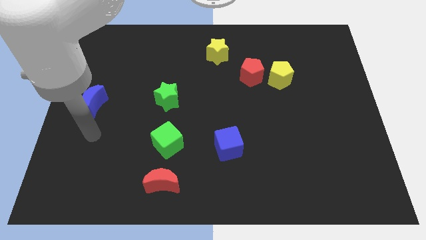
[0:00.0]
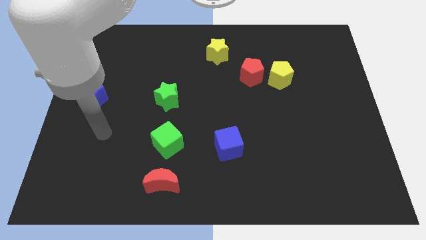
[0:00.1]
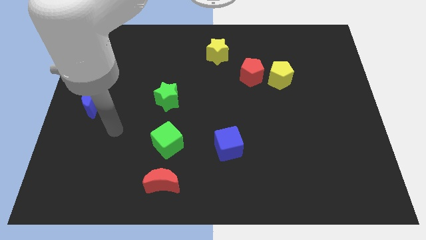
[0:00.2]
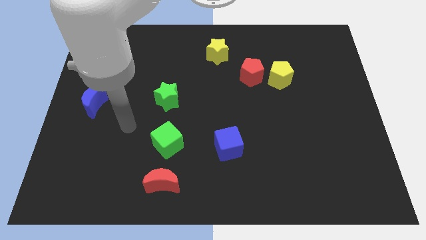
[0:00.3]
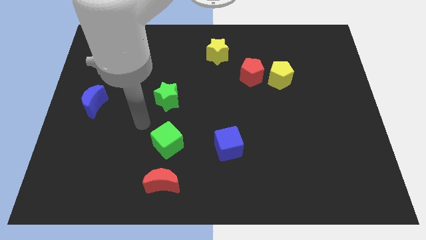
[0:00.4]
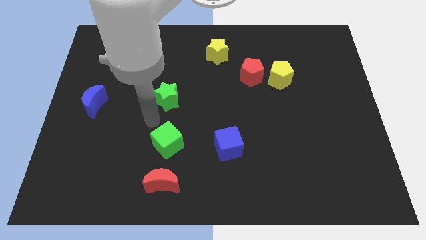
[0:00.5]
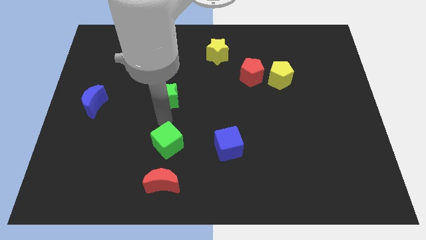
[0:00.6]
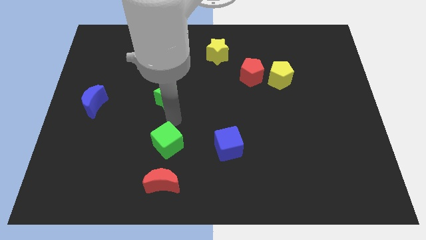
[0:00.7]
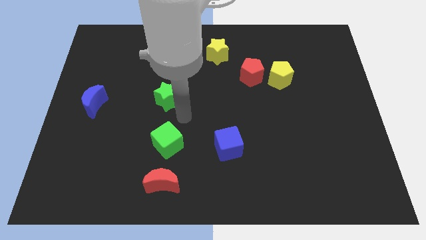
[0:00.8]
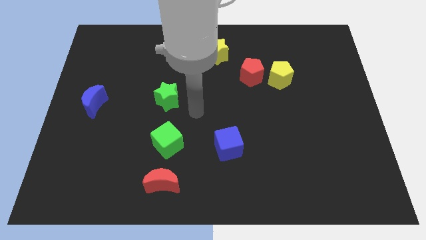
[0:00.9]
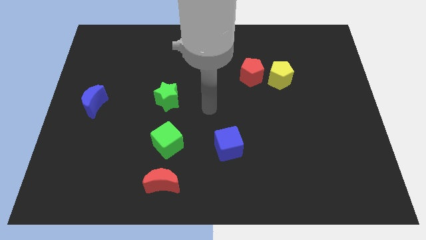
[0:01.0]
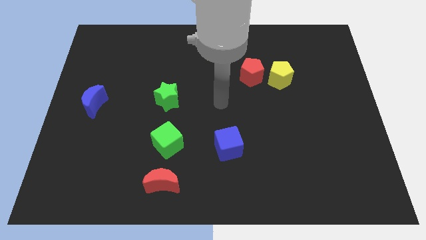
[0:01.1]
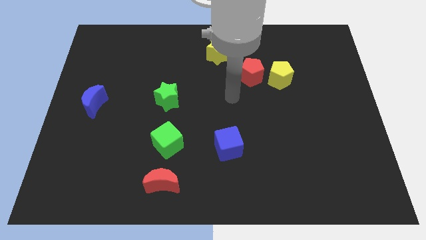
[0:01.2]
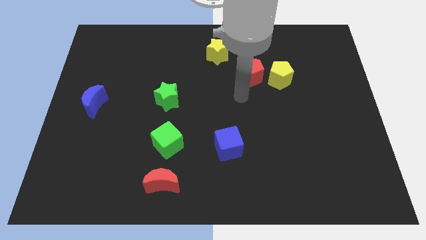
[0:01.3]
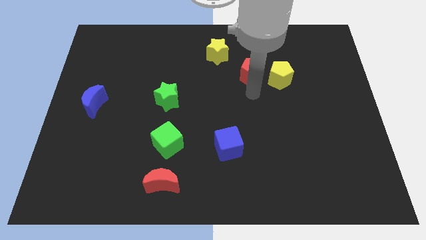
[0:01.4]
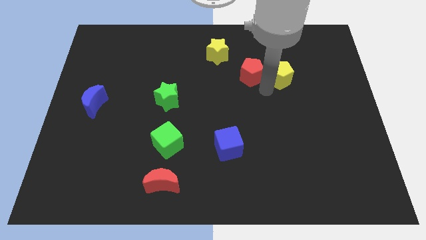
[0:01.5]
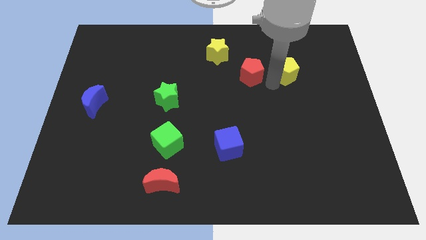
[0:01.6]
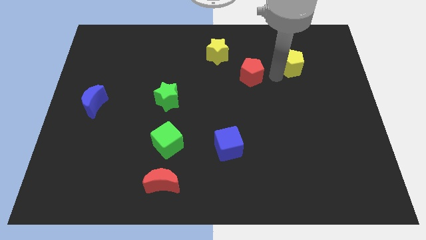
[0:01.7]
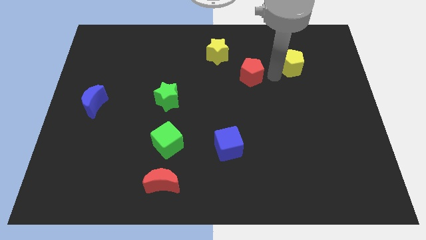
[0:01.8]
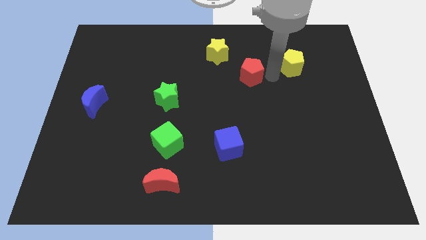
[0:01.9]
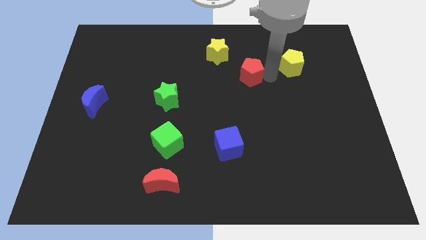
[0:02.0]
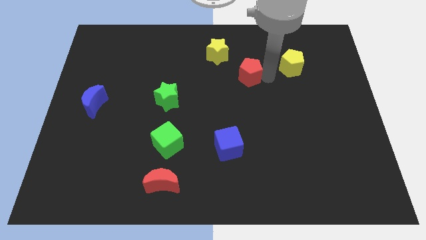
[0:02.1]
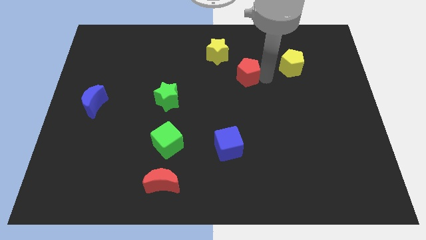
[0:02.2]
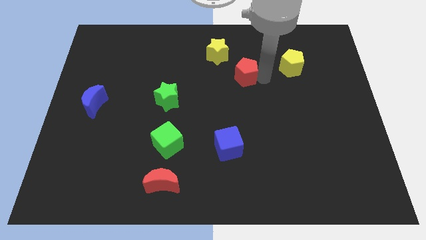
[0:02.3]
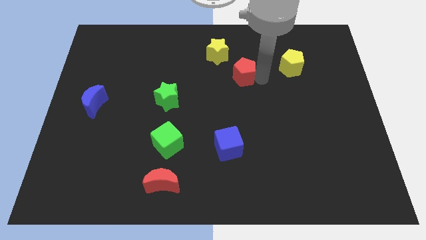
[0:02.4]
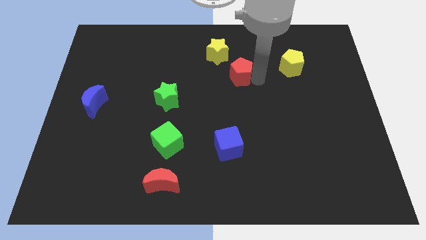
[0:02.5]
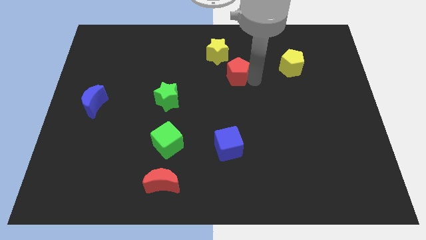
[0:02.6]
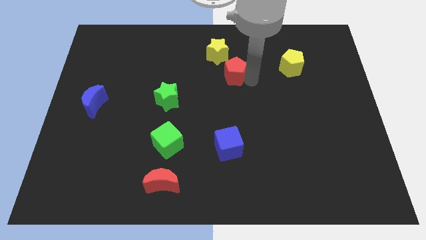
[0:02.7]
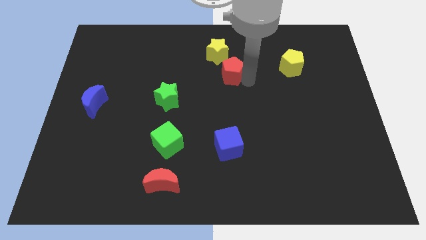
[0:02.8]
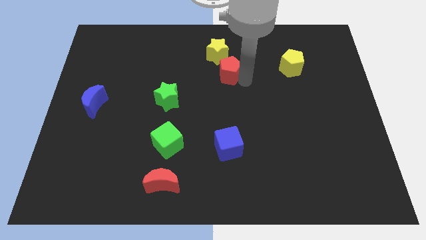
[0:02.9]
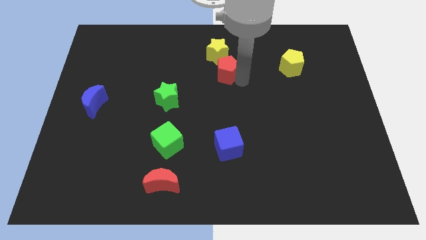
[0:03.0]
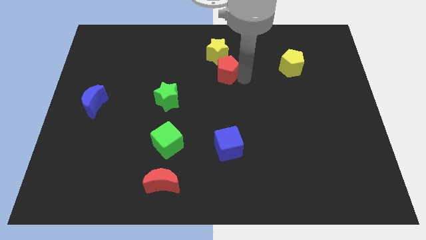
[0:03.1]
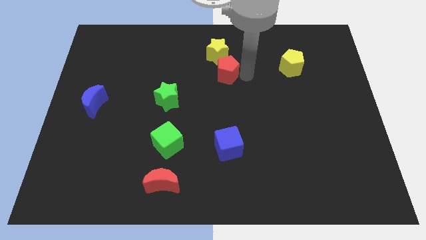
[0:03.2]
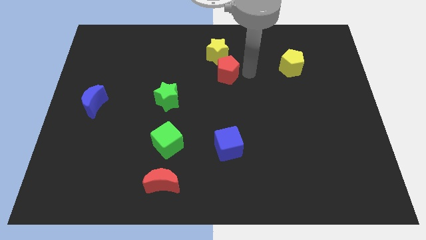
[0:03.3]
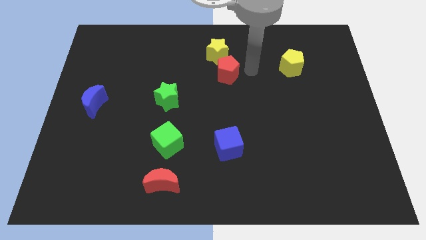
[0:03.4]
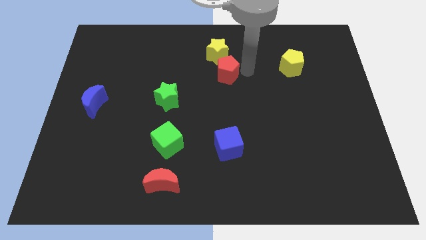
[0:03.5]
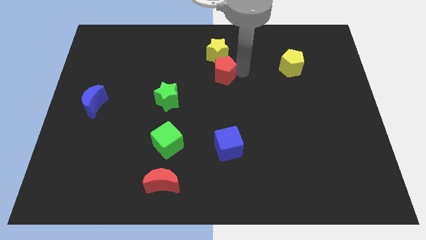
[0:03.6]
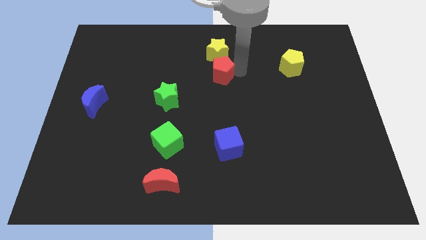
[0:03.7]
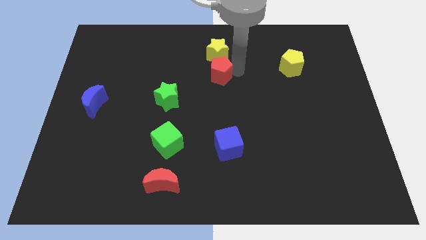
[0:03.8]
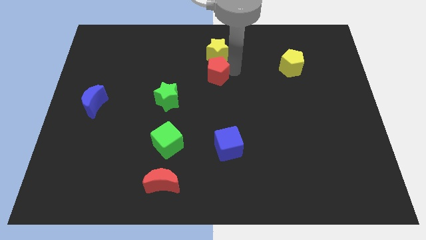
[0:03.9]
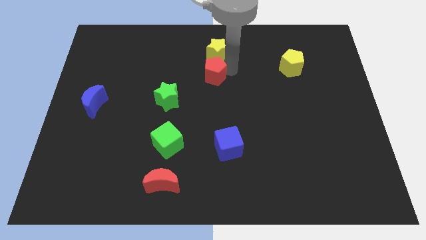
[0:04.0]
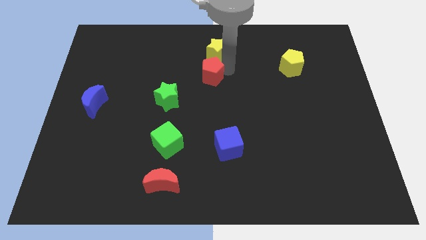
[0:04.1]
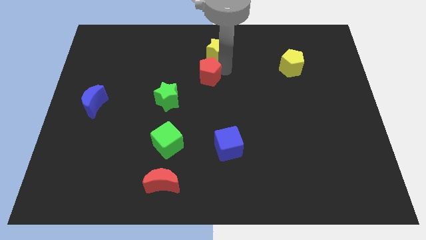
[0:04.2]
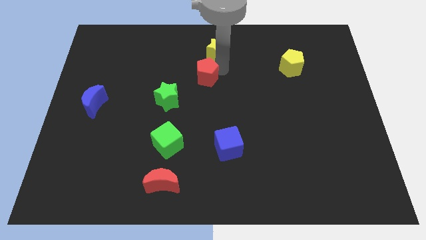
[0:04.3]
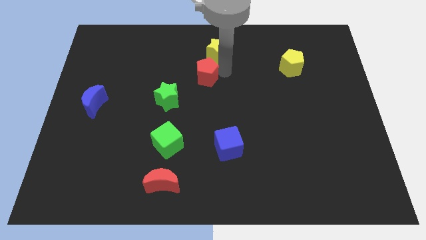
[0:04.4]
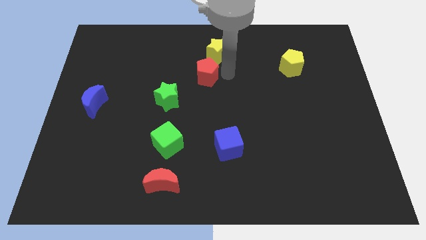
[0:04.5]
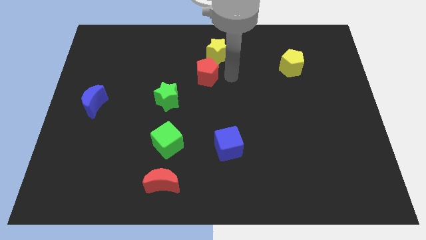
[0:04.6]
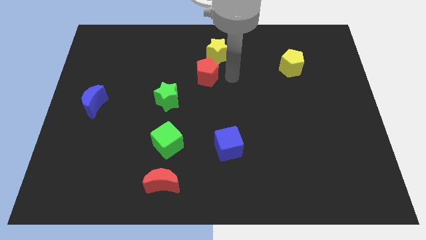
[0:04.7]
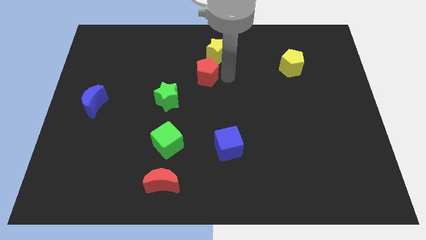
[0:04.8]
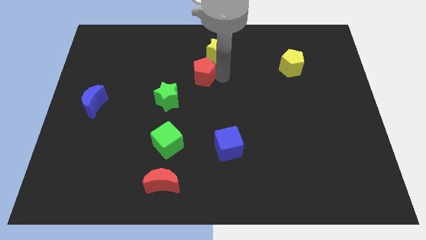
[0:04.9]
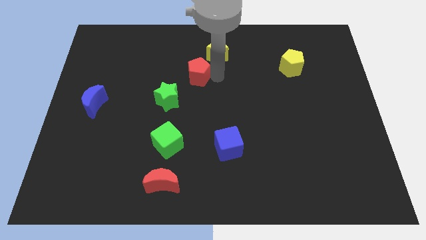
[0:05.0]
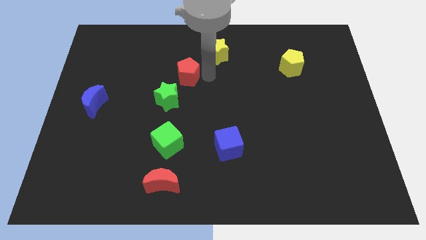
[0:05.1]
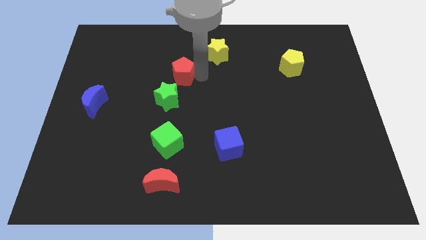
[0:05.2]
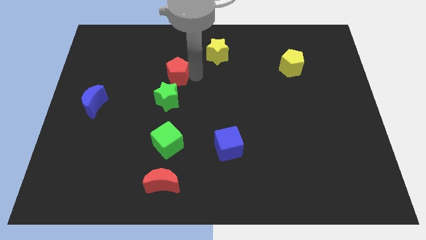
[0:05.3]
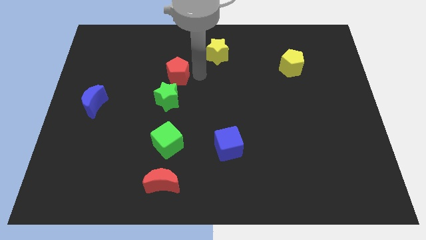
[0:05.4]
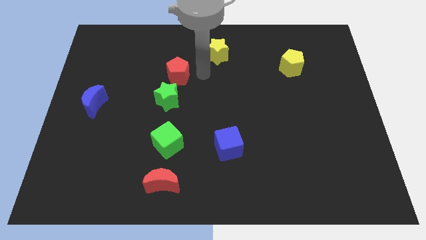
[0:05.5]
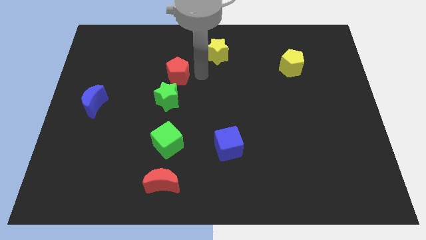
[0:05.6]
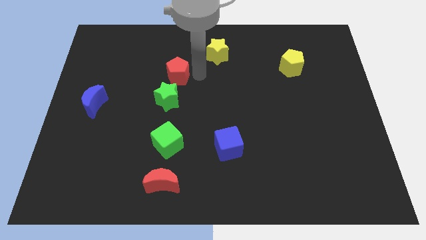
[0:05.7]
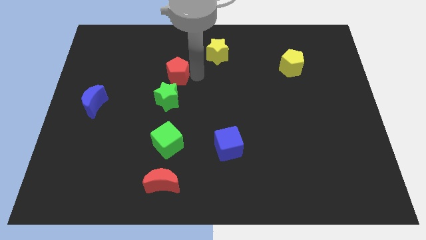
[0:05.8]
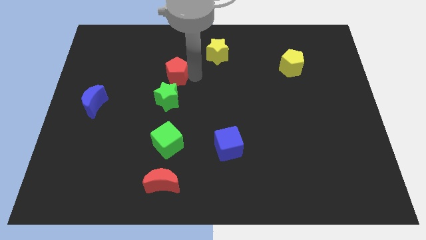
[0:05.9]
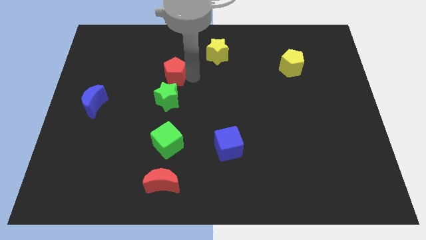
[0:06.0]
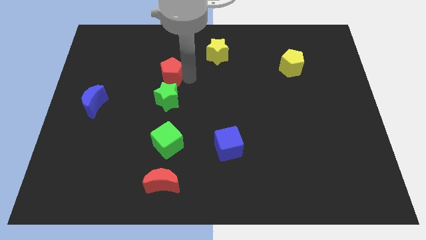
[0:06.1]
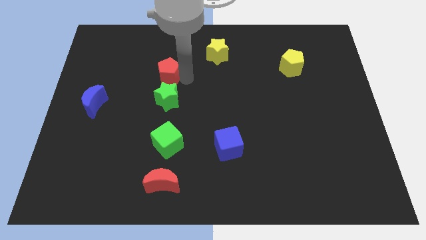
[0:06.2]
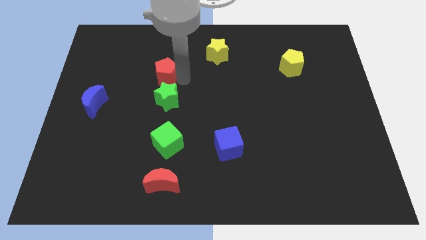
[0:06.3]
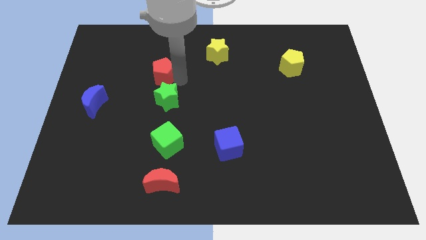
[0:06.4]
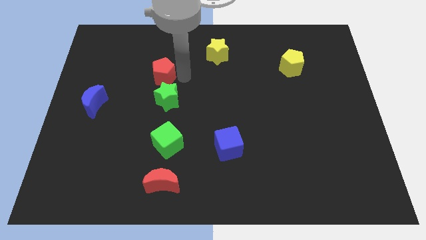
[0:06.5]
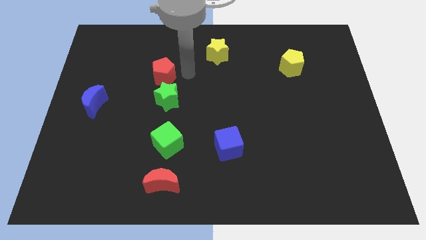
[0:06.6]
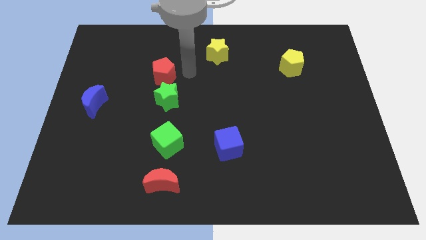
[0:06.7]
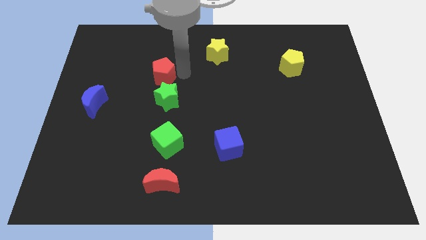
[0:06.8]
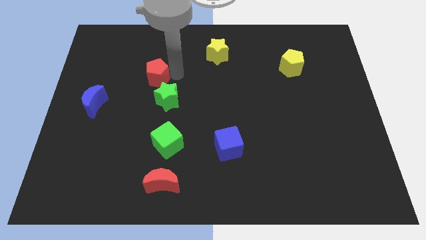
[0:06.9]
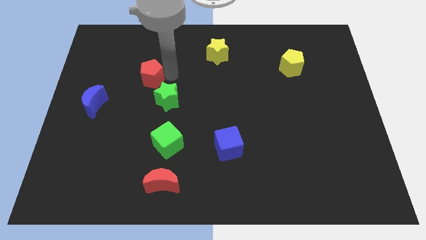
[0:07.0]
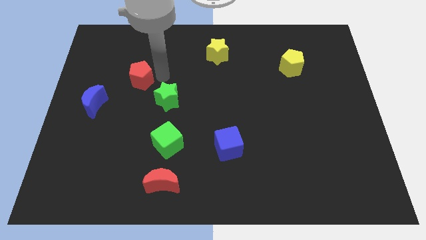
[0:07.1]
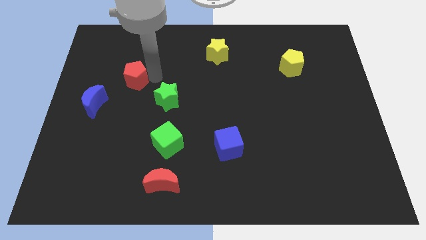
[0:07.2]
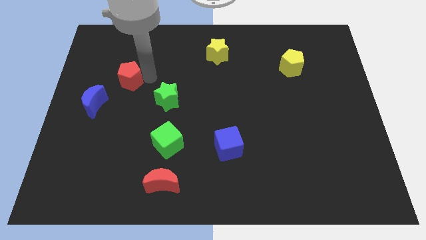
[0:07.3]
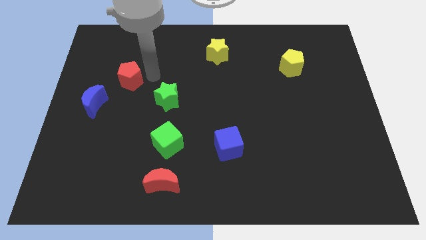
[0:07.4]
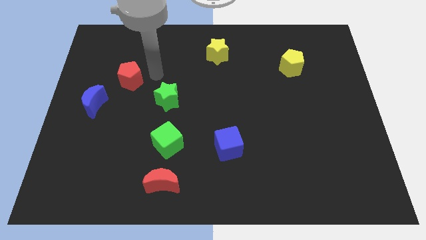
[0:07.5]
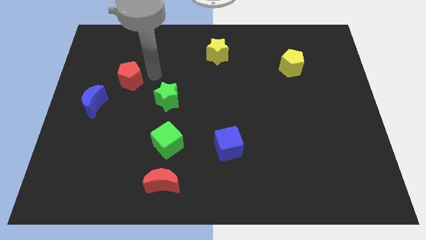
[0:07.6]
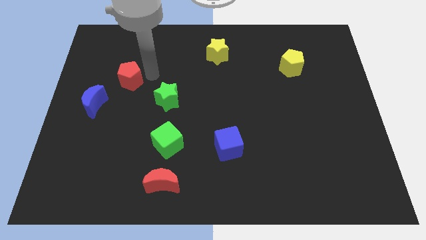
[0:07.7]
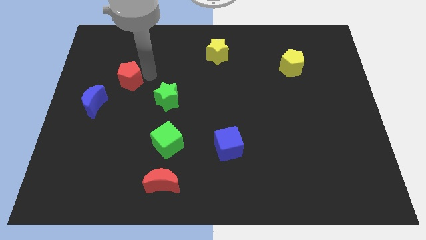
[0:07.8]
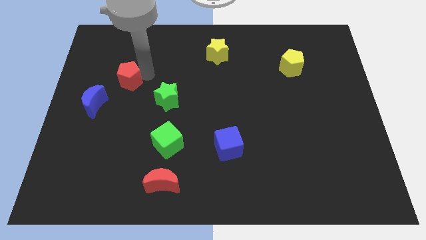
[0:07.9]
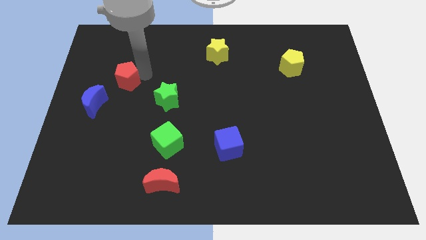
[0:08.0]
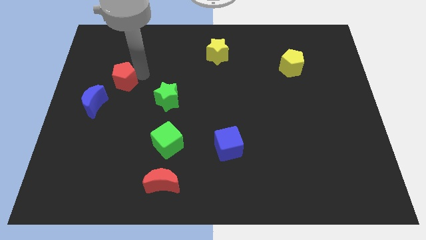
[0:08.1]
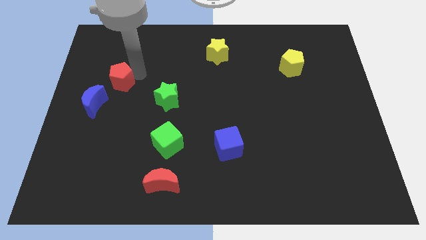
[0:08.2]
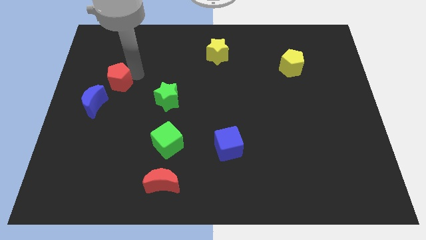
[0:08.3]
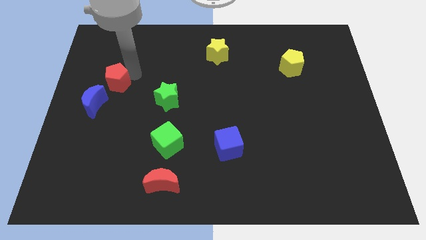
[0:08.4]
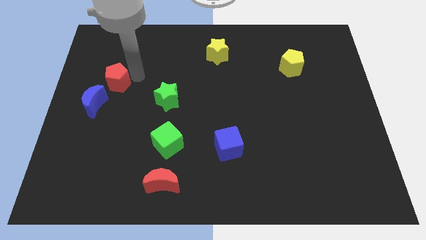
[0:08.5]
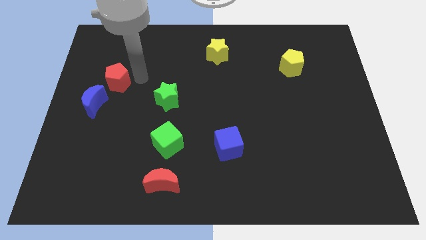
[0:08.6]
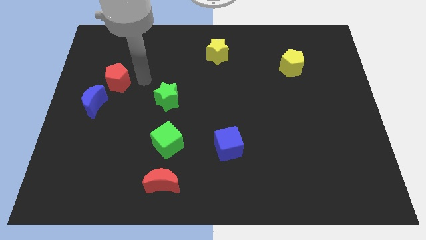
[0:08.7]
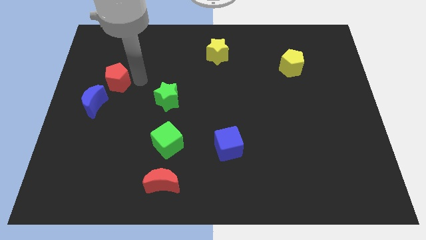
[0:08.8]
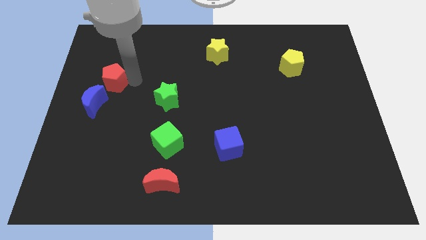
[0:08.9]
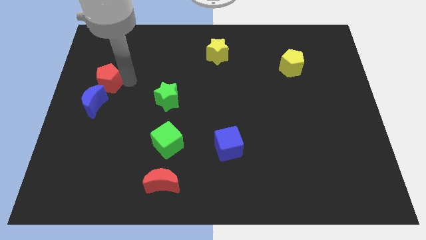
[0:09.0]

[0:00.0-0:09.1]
push the red pentagon to the left side of the board
